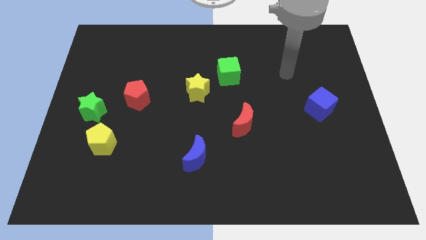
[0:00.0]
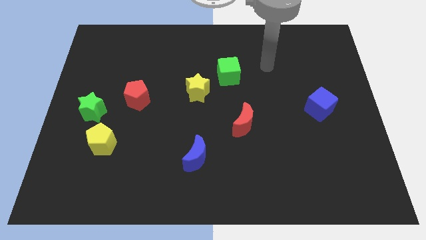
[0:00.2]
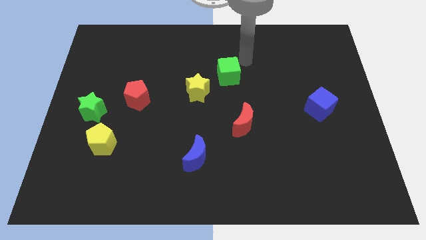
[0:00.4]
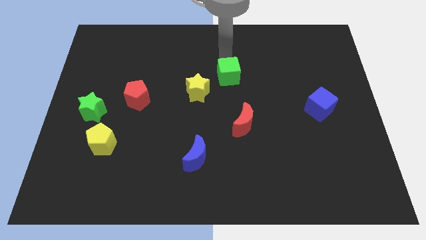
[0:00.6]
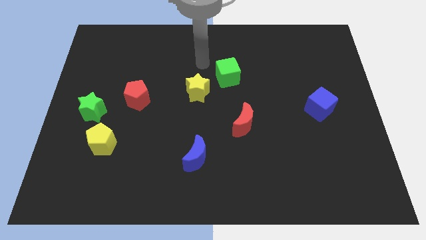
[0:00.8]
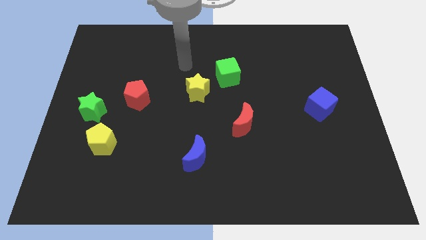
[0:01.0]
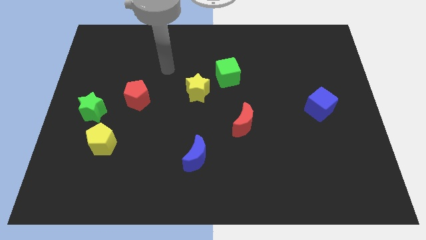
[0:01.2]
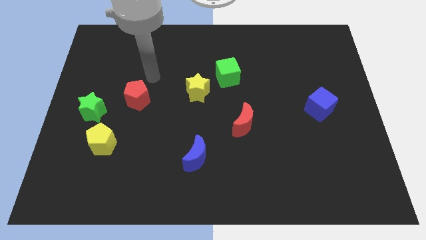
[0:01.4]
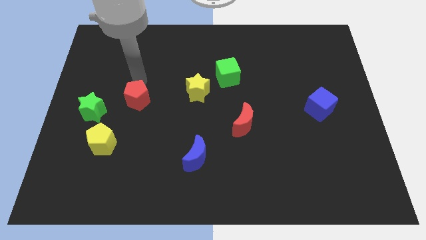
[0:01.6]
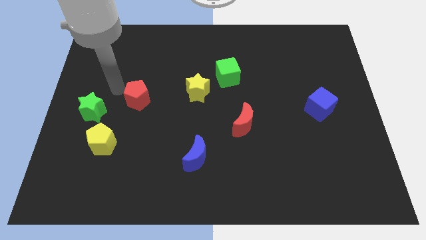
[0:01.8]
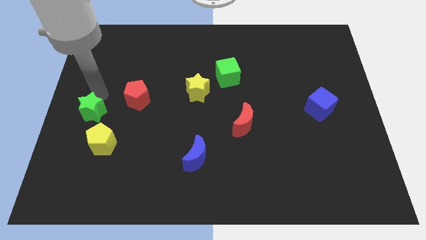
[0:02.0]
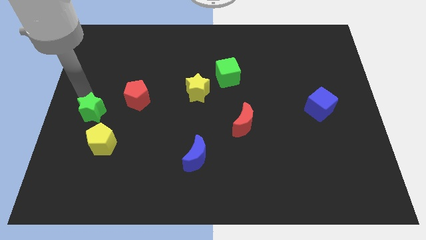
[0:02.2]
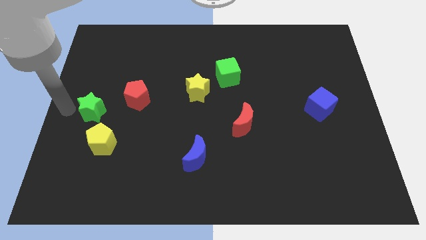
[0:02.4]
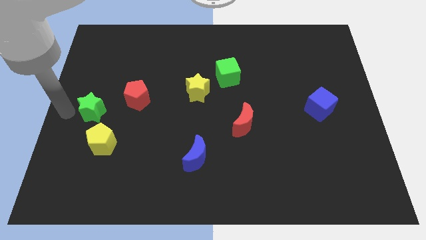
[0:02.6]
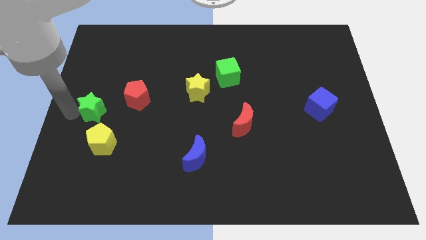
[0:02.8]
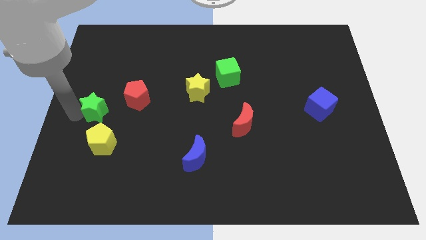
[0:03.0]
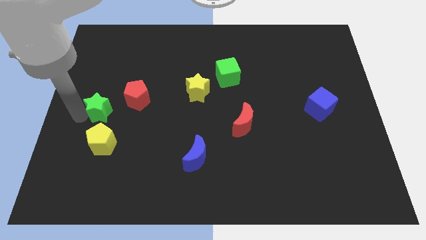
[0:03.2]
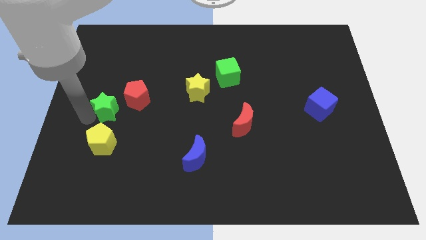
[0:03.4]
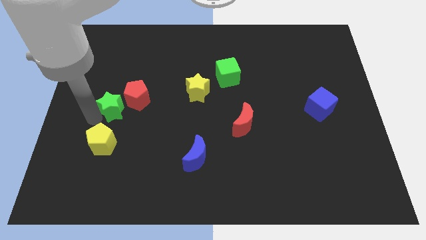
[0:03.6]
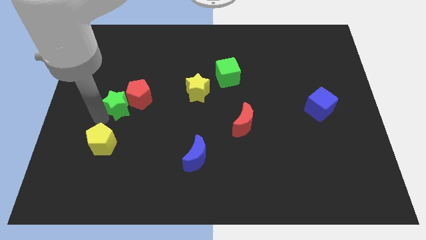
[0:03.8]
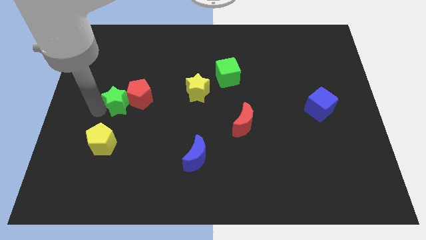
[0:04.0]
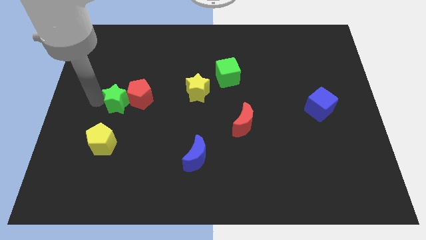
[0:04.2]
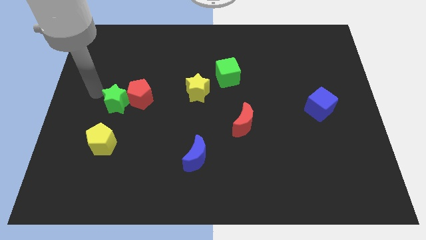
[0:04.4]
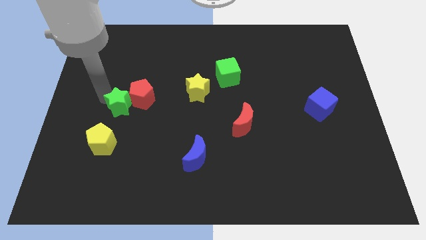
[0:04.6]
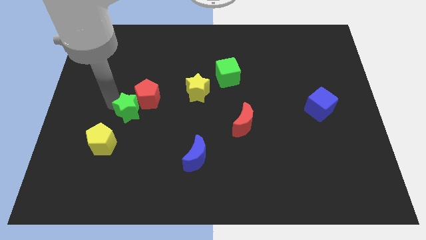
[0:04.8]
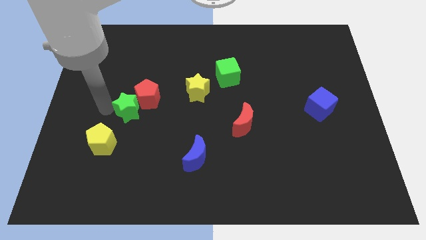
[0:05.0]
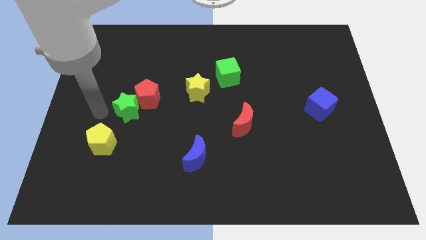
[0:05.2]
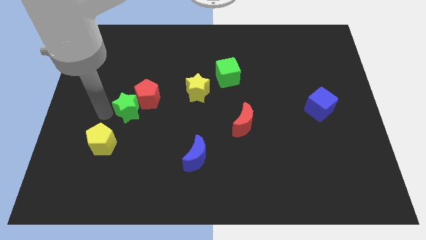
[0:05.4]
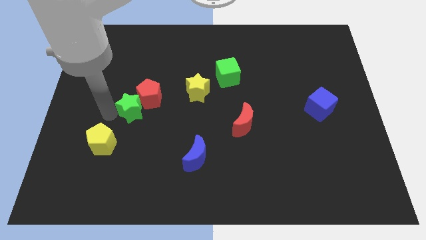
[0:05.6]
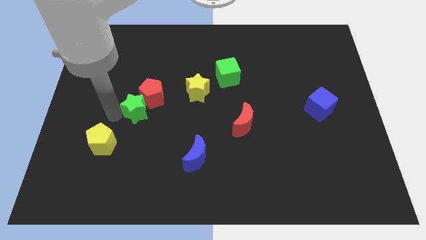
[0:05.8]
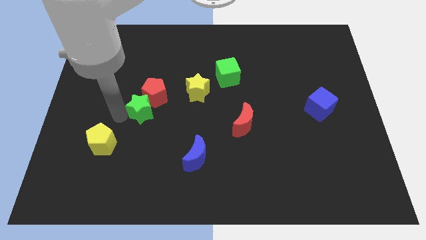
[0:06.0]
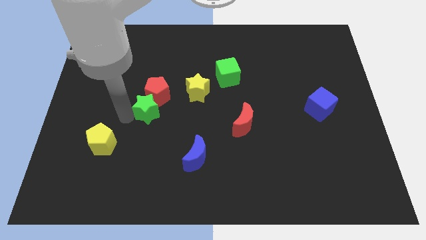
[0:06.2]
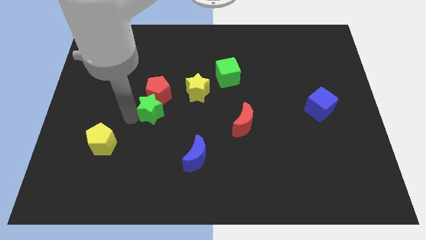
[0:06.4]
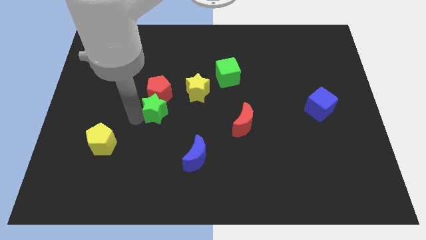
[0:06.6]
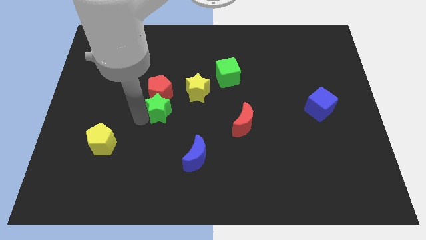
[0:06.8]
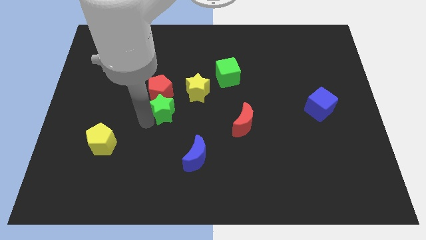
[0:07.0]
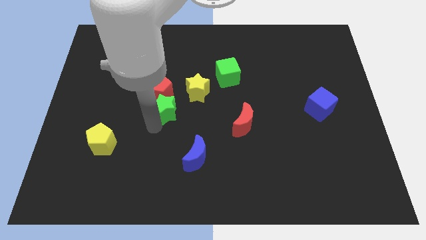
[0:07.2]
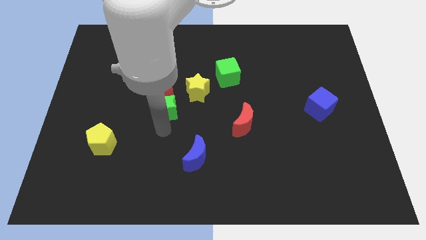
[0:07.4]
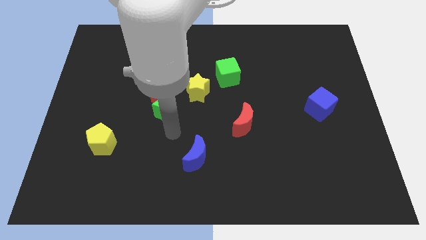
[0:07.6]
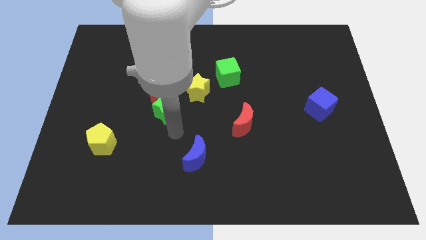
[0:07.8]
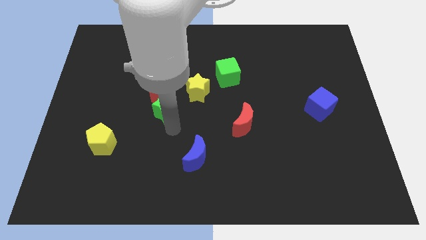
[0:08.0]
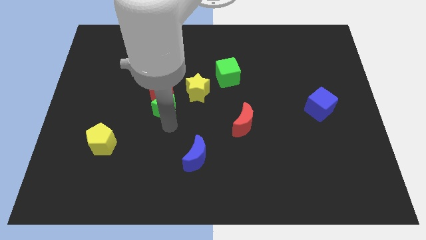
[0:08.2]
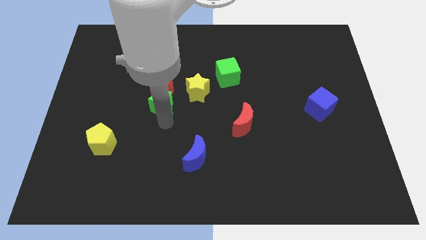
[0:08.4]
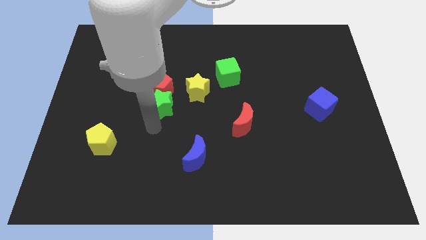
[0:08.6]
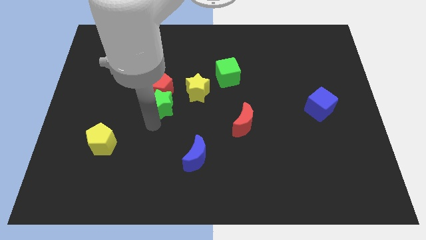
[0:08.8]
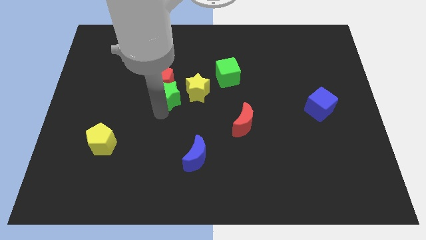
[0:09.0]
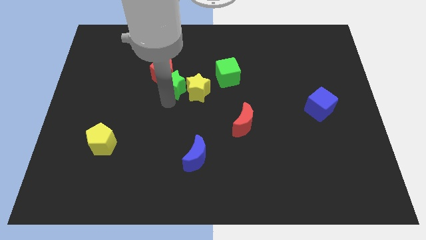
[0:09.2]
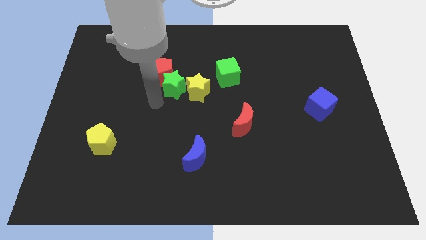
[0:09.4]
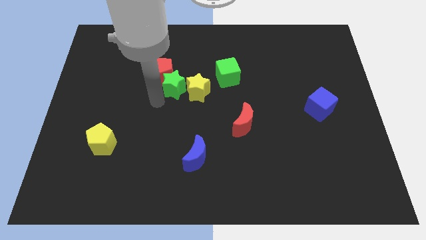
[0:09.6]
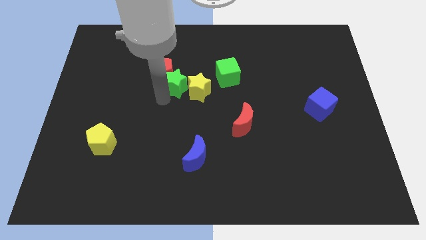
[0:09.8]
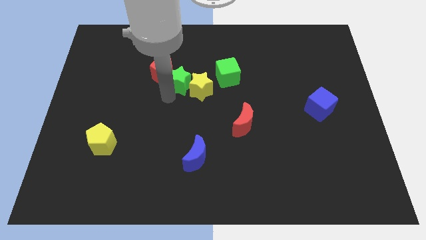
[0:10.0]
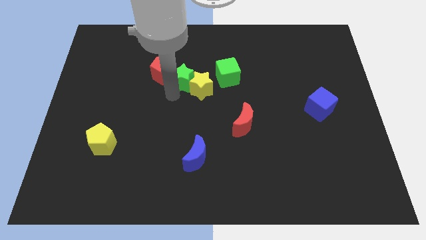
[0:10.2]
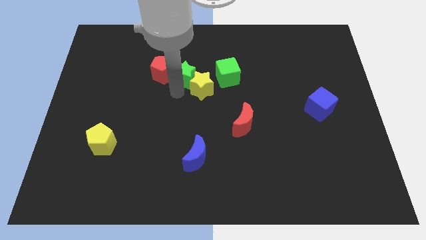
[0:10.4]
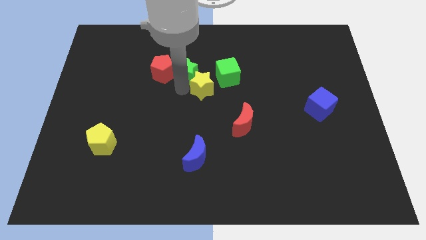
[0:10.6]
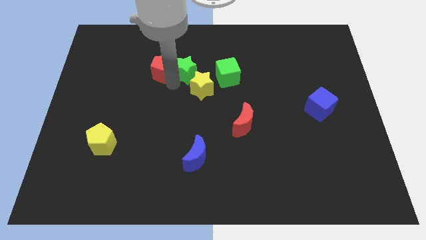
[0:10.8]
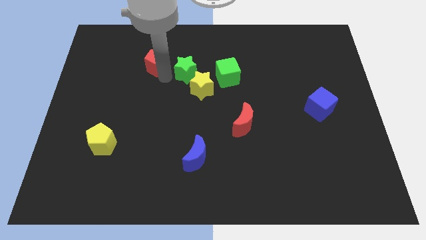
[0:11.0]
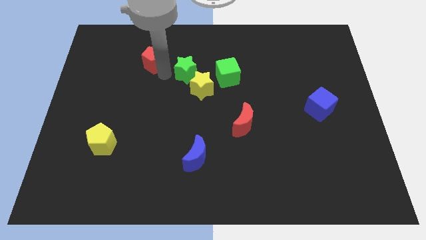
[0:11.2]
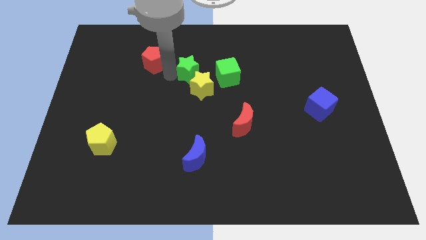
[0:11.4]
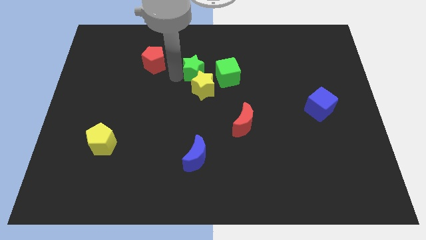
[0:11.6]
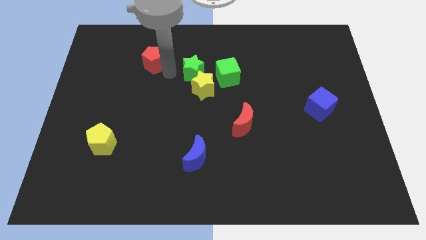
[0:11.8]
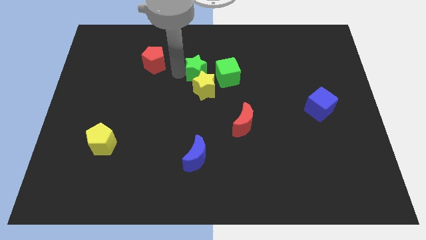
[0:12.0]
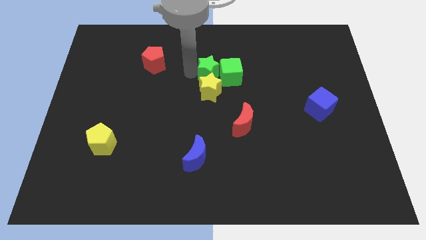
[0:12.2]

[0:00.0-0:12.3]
move the green star to the green cube

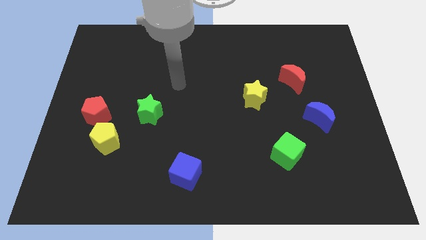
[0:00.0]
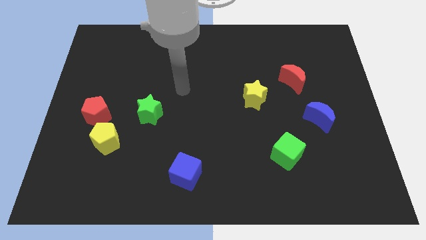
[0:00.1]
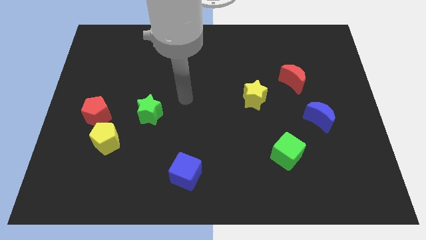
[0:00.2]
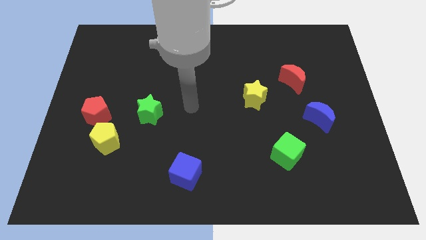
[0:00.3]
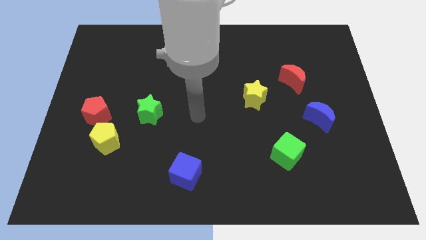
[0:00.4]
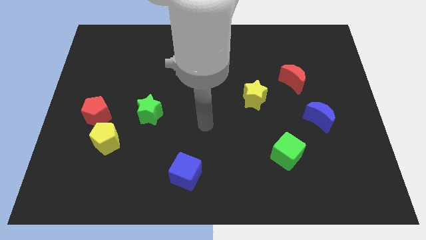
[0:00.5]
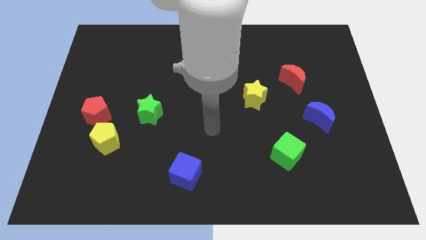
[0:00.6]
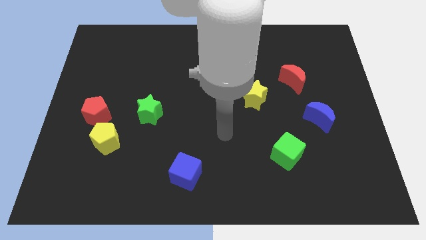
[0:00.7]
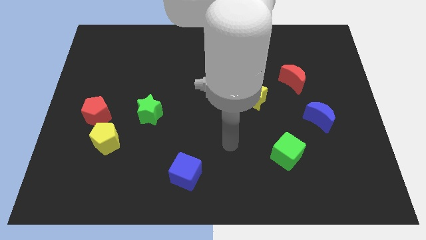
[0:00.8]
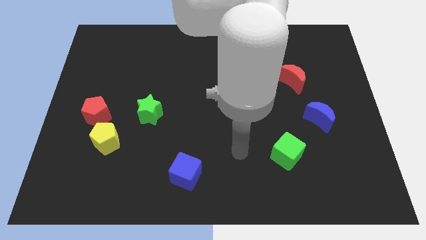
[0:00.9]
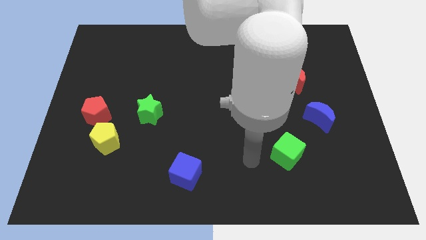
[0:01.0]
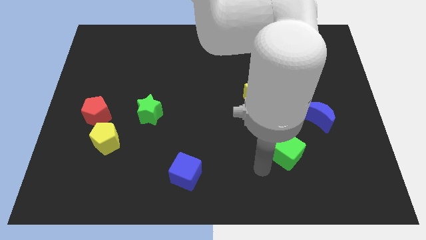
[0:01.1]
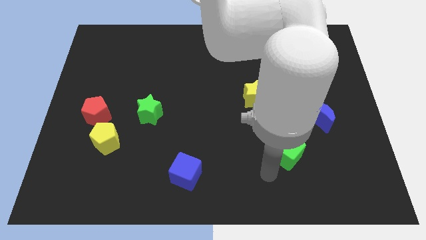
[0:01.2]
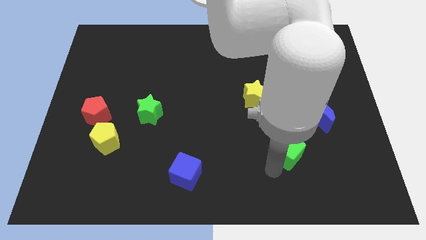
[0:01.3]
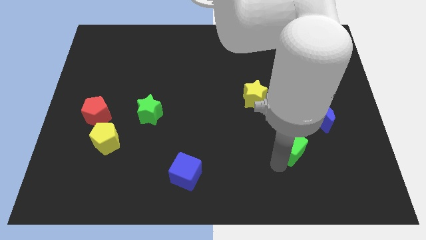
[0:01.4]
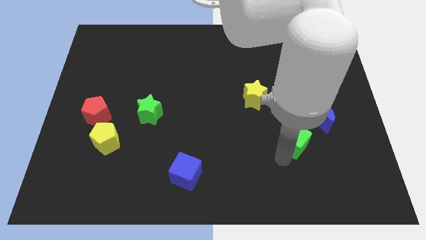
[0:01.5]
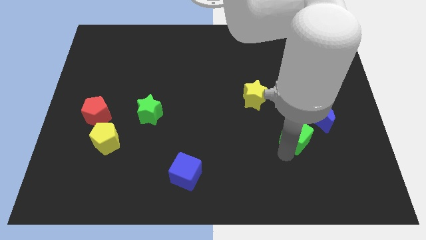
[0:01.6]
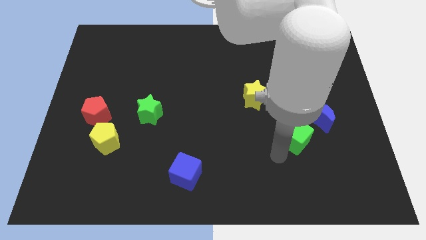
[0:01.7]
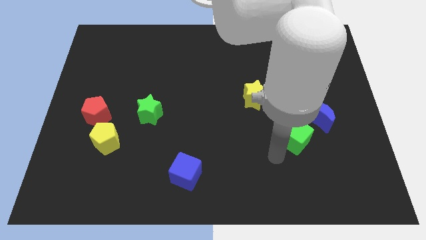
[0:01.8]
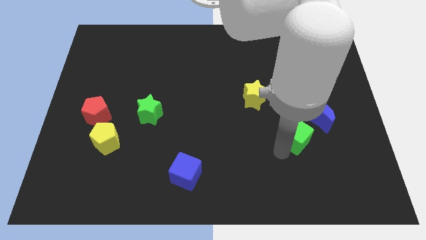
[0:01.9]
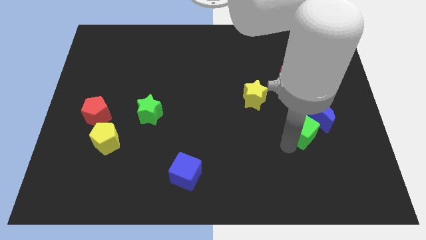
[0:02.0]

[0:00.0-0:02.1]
push the green cube close to the blue moon
